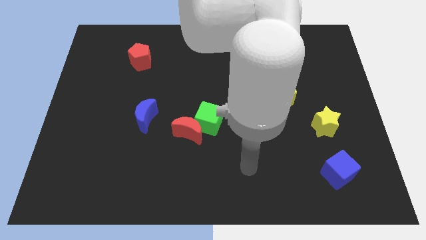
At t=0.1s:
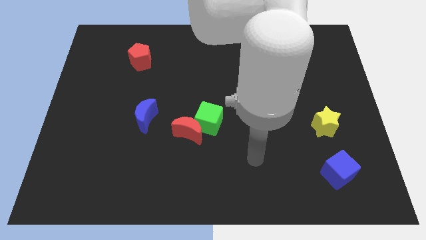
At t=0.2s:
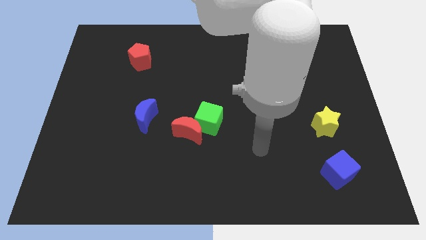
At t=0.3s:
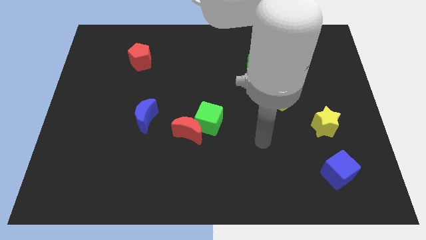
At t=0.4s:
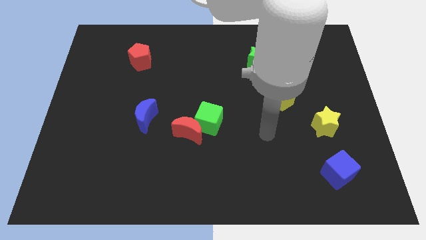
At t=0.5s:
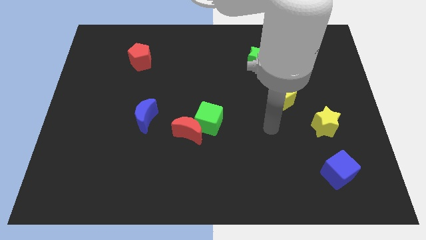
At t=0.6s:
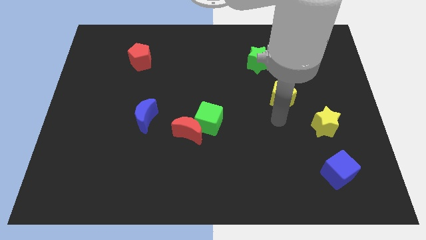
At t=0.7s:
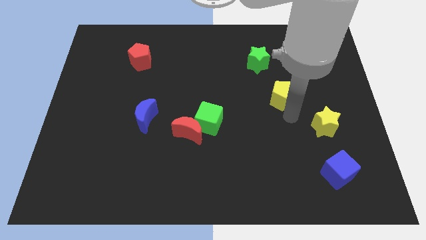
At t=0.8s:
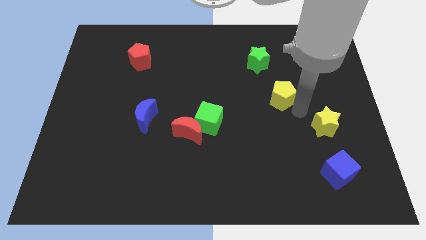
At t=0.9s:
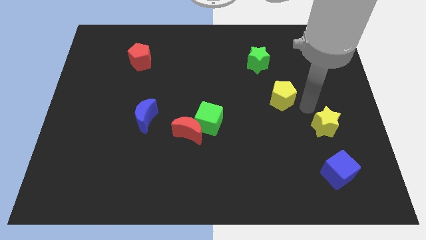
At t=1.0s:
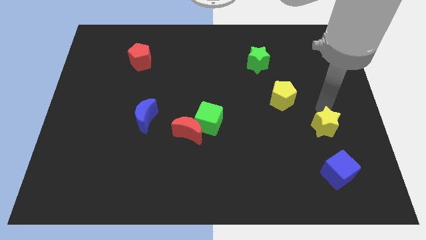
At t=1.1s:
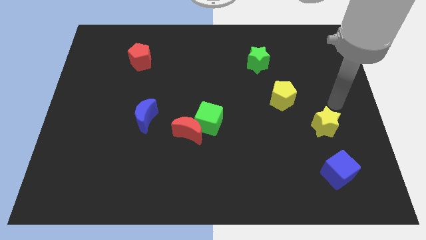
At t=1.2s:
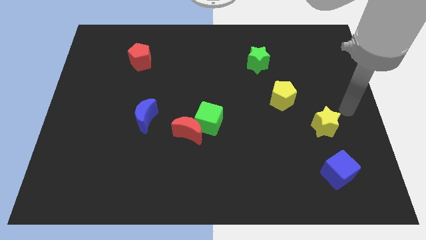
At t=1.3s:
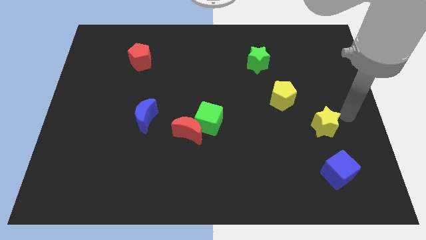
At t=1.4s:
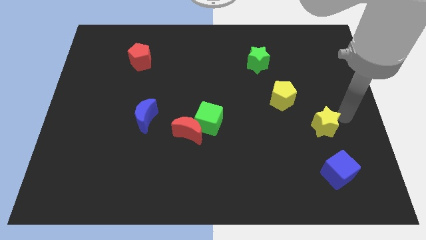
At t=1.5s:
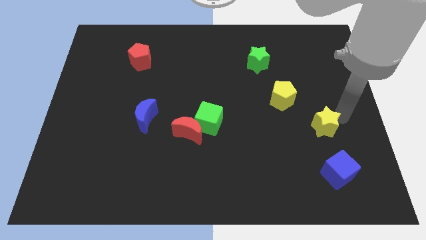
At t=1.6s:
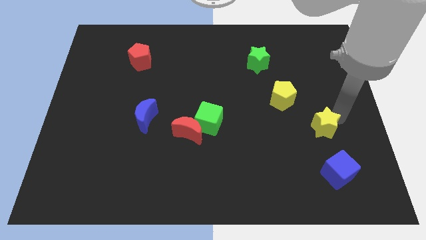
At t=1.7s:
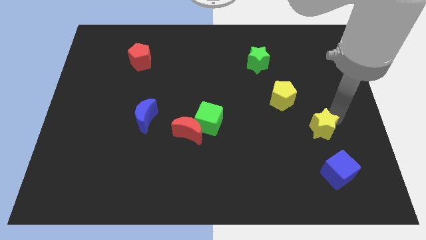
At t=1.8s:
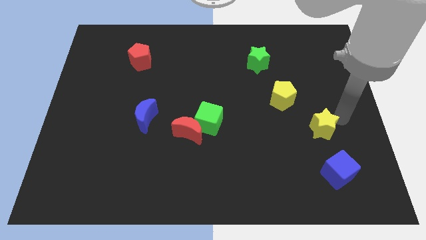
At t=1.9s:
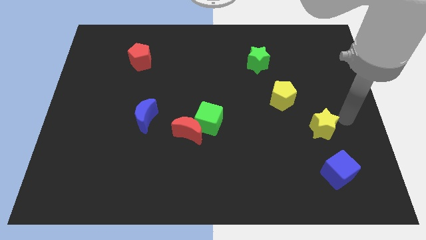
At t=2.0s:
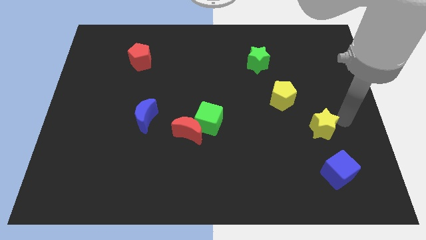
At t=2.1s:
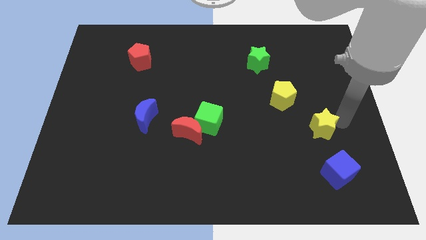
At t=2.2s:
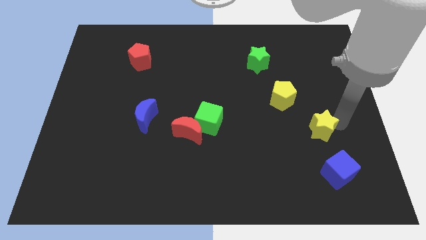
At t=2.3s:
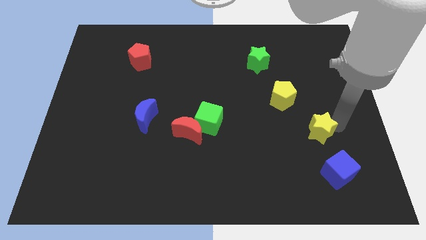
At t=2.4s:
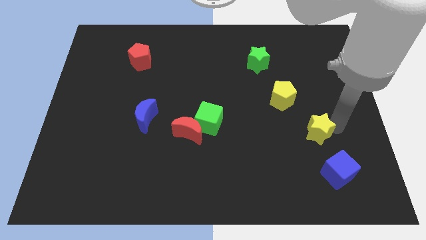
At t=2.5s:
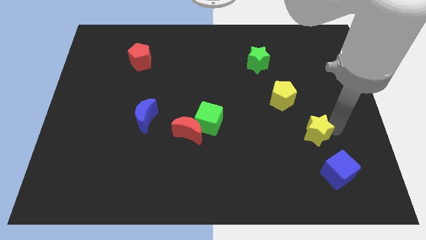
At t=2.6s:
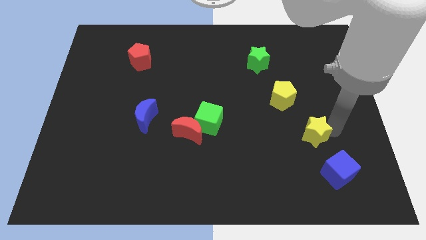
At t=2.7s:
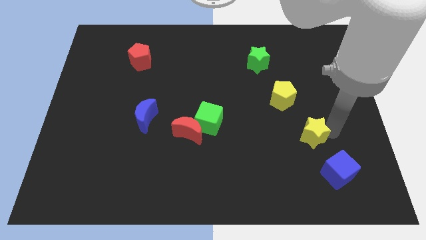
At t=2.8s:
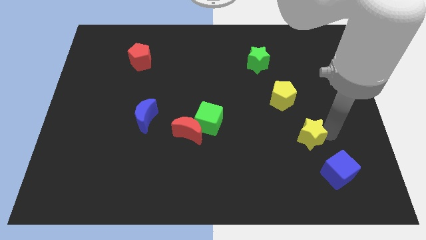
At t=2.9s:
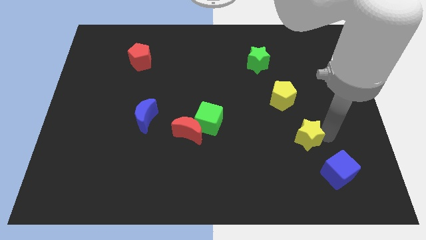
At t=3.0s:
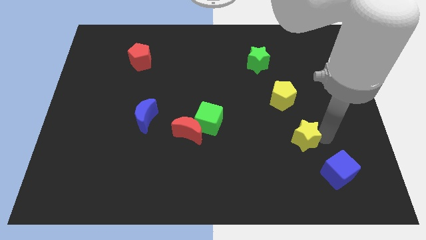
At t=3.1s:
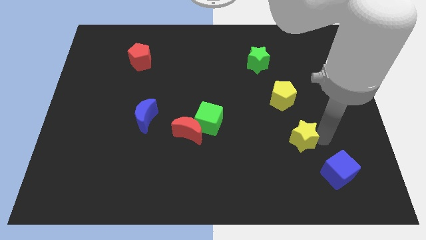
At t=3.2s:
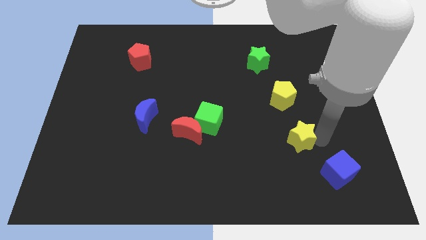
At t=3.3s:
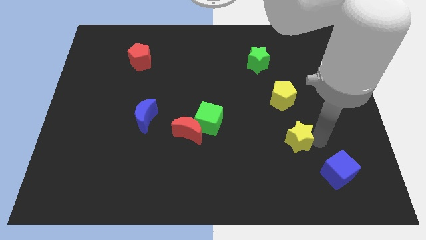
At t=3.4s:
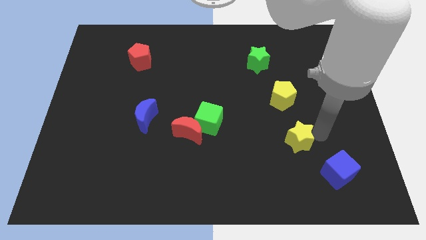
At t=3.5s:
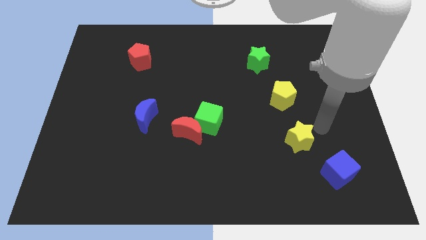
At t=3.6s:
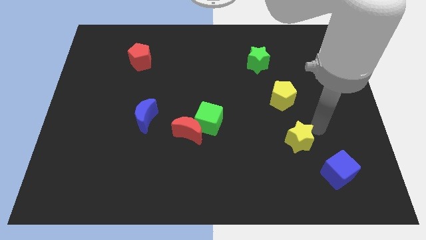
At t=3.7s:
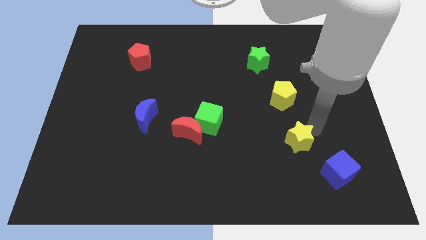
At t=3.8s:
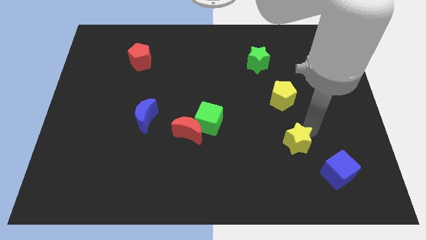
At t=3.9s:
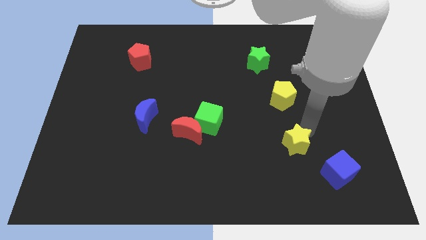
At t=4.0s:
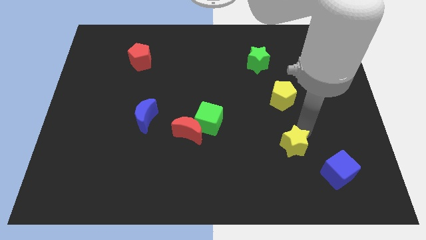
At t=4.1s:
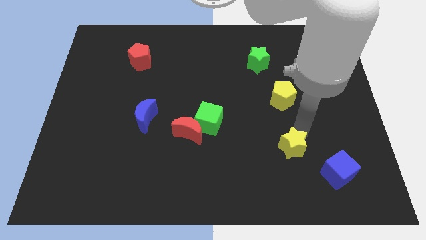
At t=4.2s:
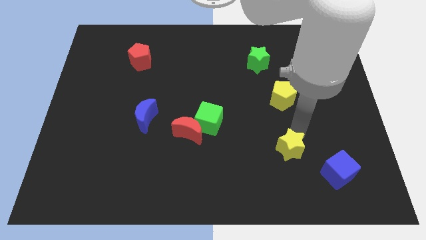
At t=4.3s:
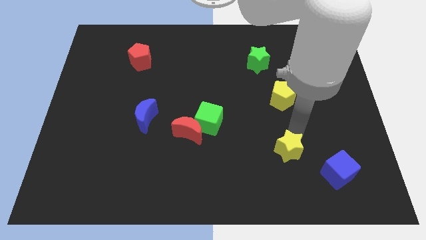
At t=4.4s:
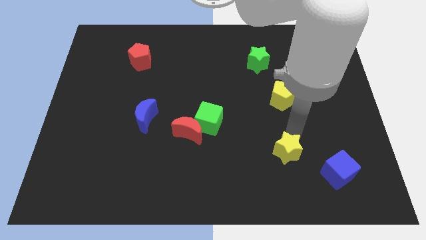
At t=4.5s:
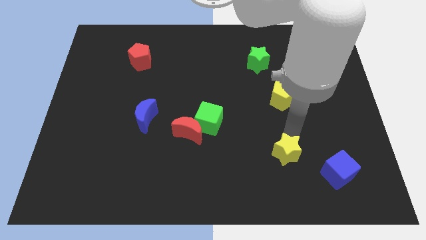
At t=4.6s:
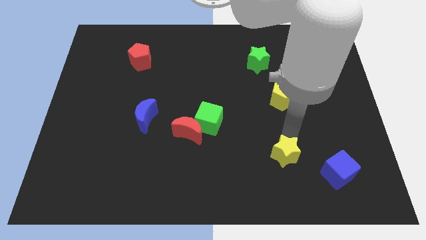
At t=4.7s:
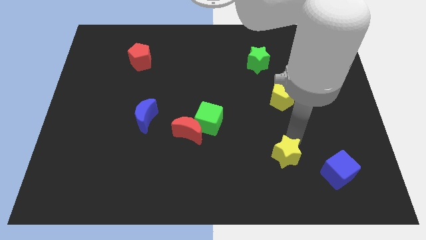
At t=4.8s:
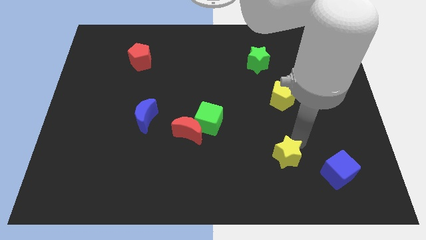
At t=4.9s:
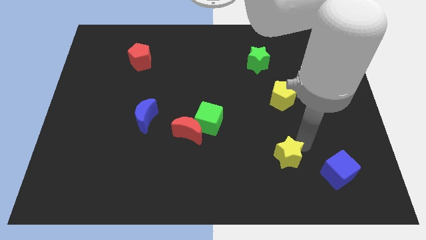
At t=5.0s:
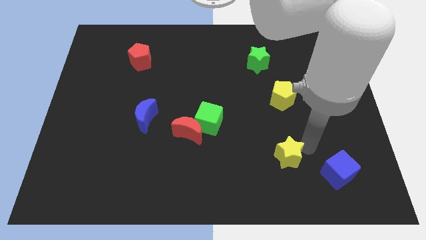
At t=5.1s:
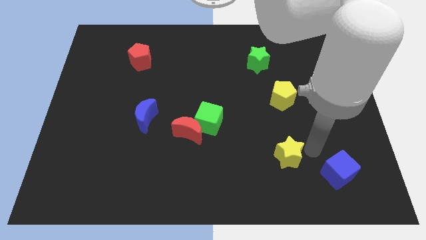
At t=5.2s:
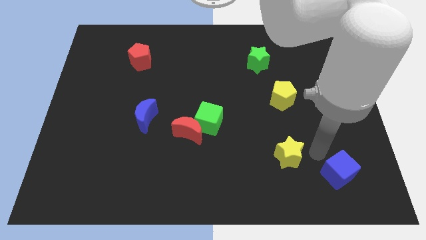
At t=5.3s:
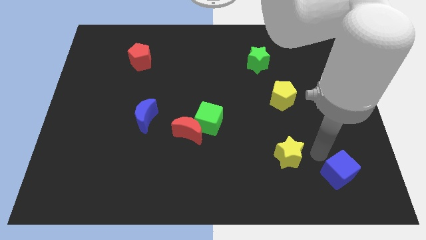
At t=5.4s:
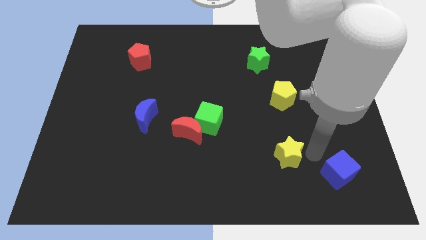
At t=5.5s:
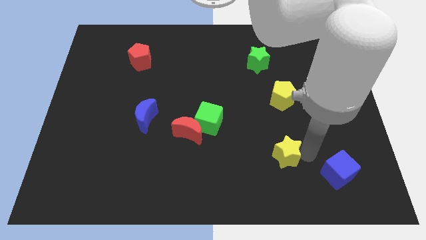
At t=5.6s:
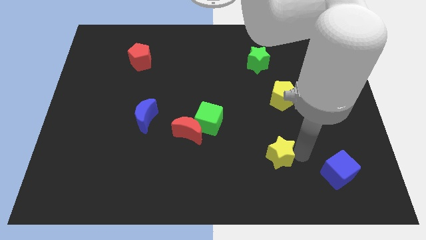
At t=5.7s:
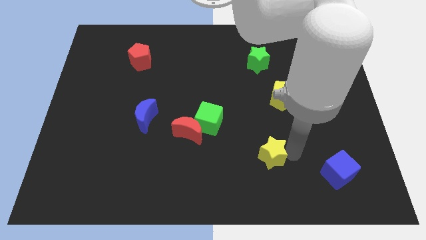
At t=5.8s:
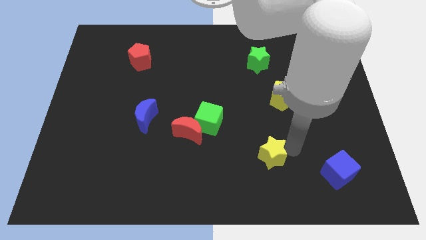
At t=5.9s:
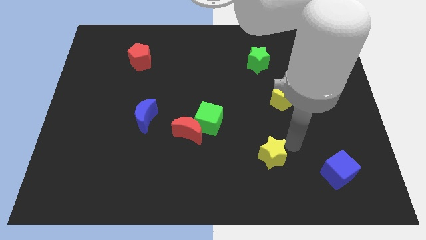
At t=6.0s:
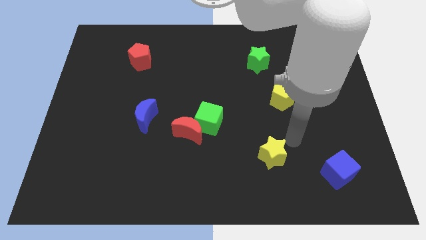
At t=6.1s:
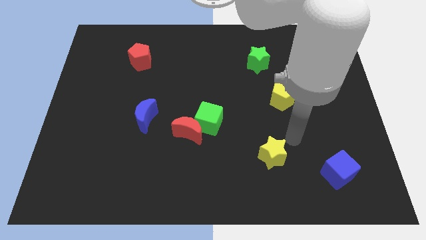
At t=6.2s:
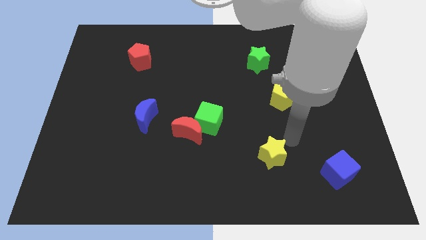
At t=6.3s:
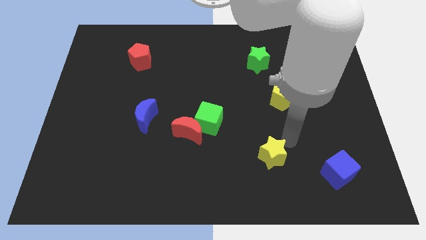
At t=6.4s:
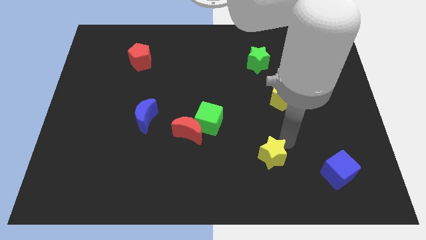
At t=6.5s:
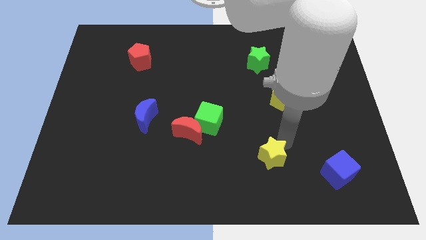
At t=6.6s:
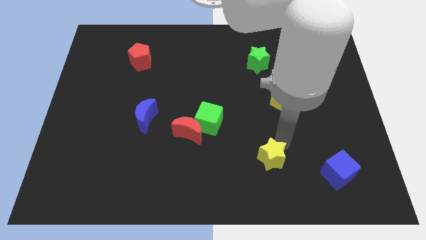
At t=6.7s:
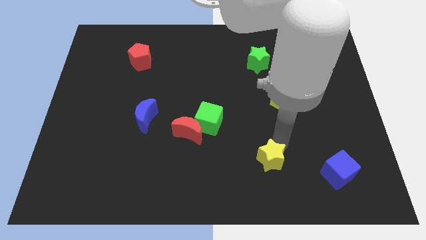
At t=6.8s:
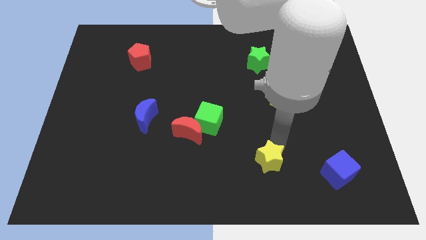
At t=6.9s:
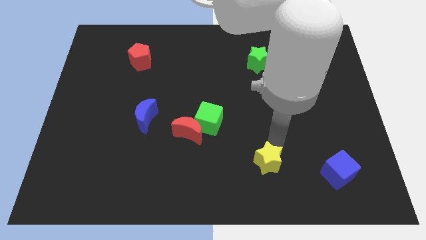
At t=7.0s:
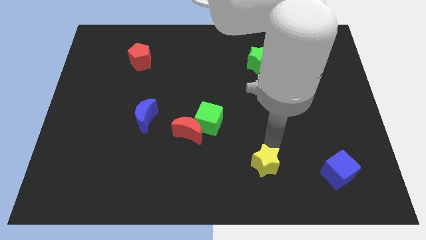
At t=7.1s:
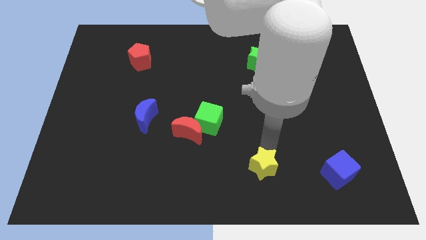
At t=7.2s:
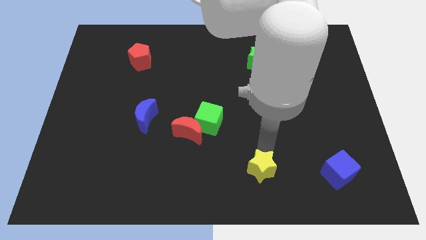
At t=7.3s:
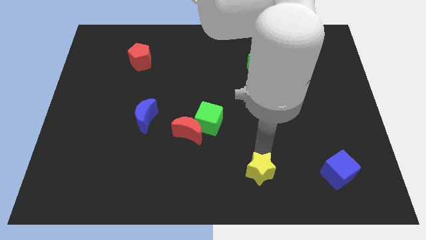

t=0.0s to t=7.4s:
move the yellow star to the bottom
